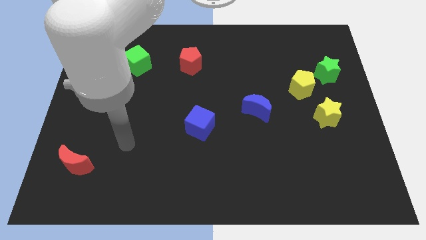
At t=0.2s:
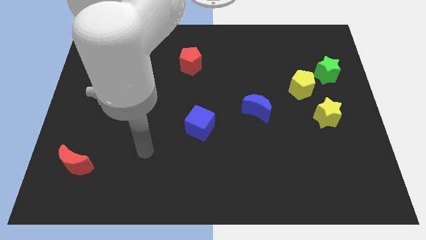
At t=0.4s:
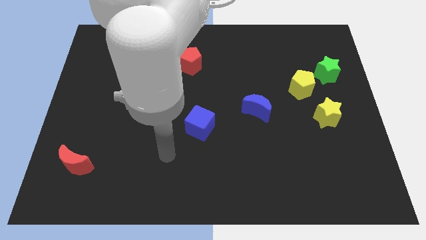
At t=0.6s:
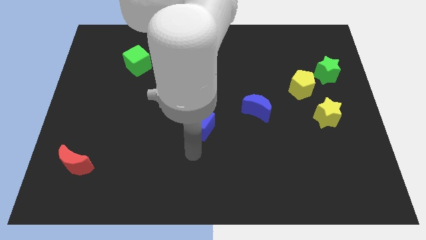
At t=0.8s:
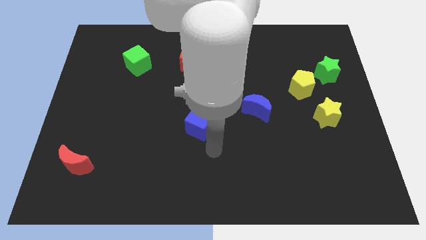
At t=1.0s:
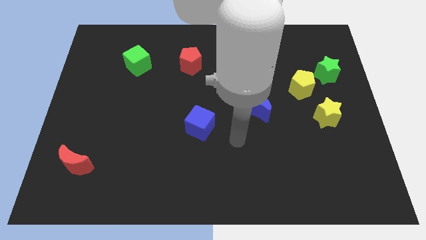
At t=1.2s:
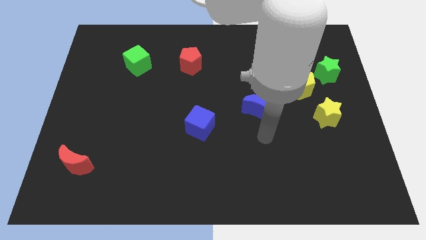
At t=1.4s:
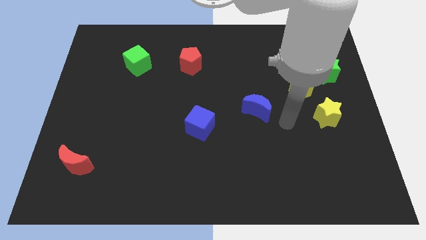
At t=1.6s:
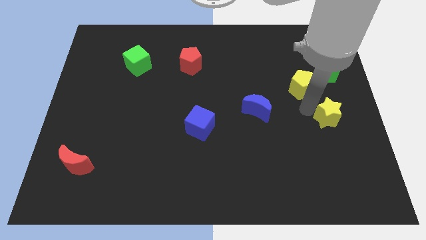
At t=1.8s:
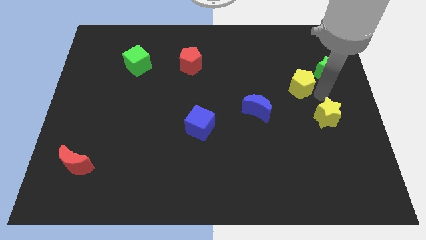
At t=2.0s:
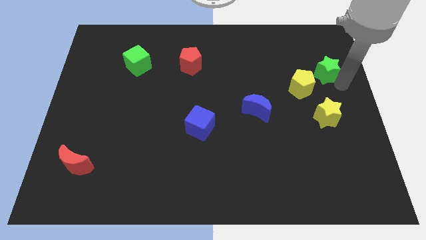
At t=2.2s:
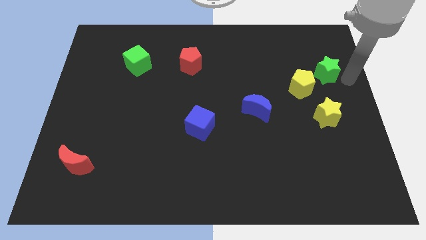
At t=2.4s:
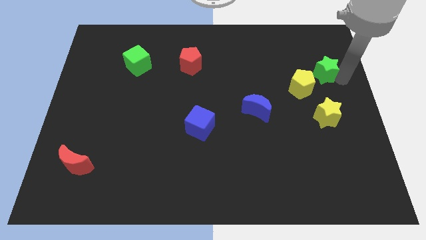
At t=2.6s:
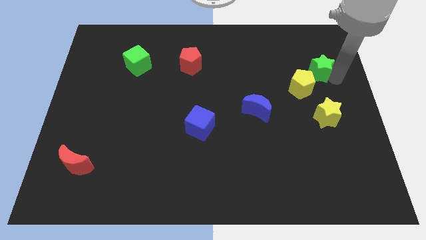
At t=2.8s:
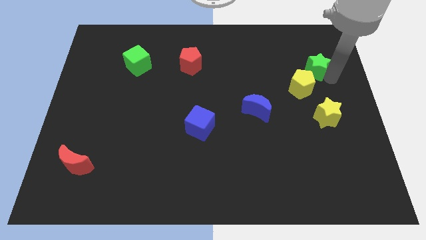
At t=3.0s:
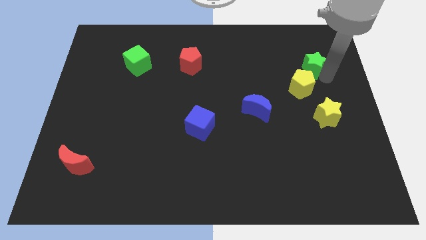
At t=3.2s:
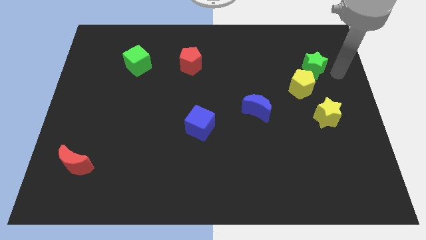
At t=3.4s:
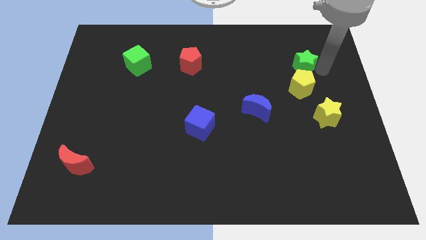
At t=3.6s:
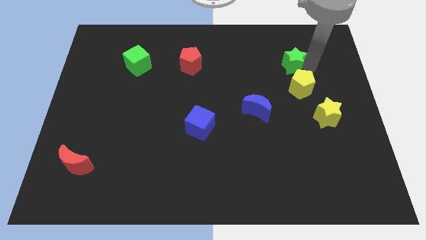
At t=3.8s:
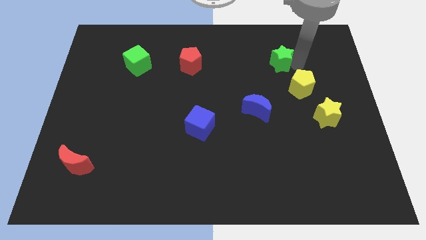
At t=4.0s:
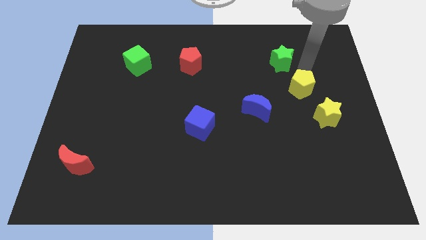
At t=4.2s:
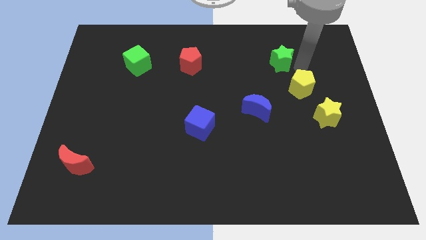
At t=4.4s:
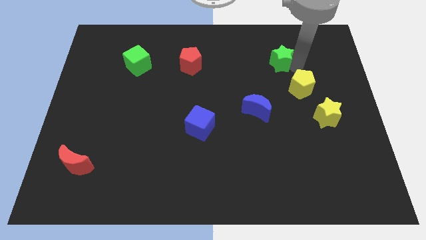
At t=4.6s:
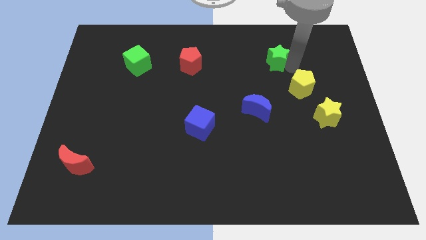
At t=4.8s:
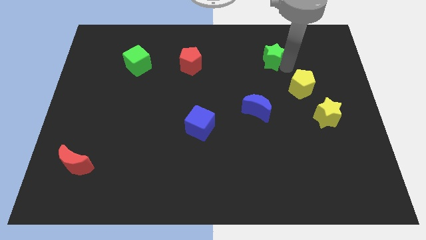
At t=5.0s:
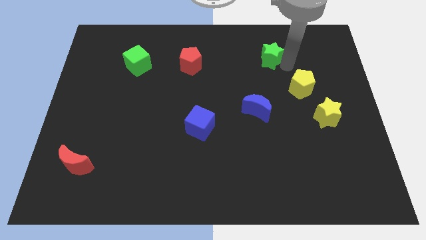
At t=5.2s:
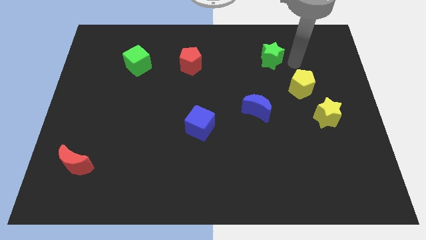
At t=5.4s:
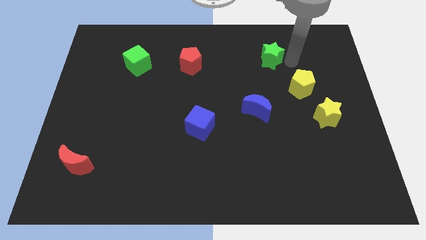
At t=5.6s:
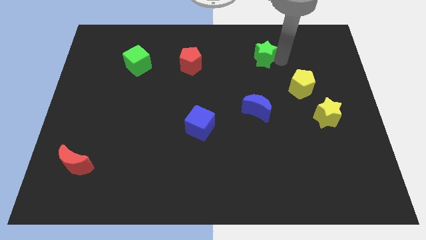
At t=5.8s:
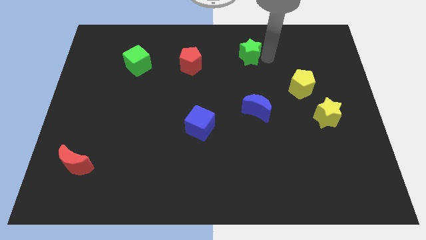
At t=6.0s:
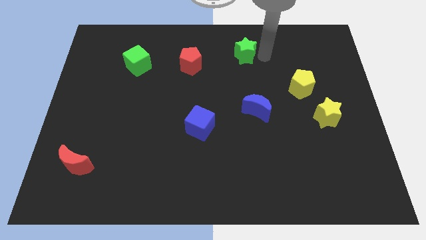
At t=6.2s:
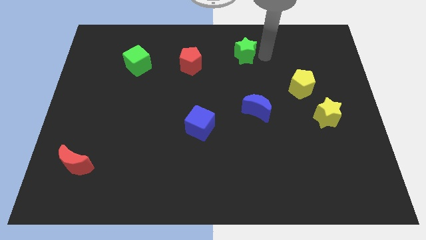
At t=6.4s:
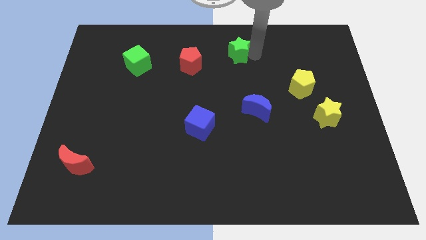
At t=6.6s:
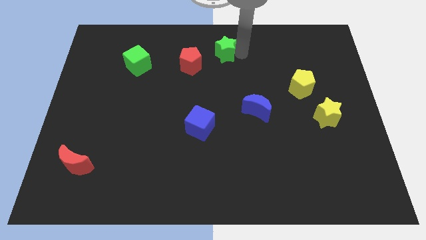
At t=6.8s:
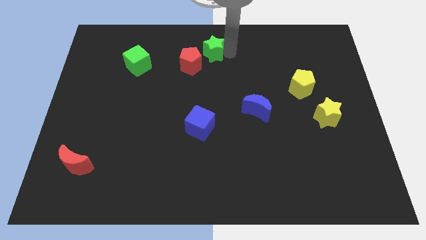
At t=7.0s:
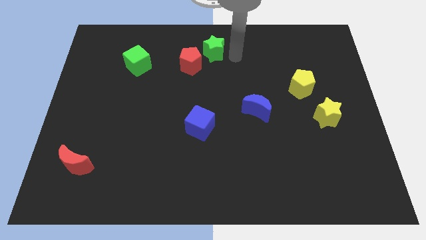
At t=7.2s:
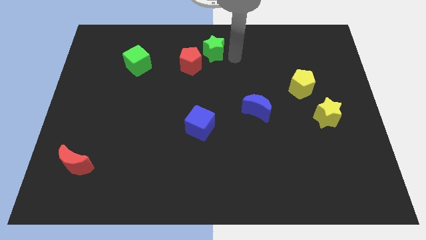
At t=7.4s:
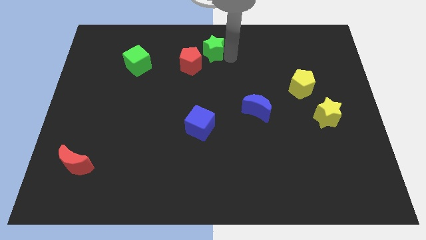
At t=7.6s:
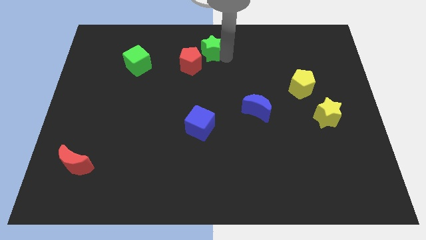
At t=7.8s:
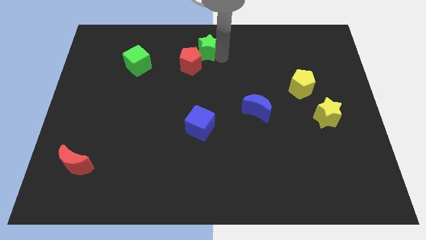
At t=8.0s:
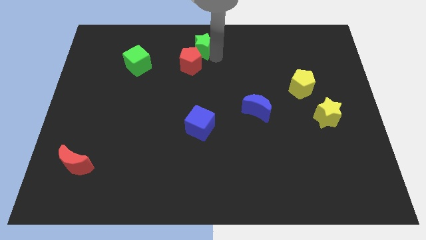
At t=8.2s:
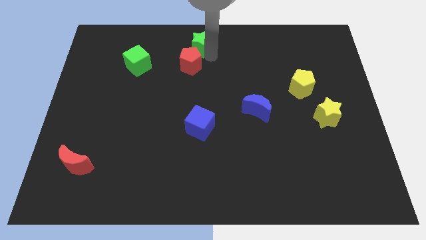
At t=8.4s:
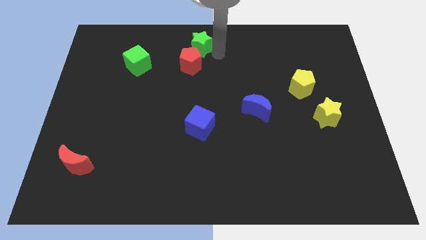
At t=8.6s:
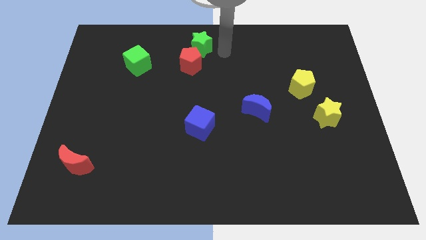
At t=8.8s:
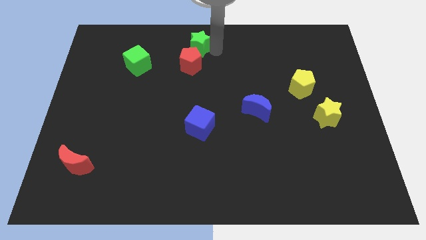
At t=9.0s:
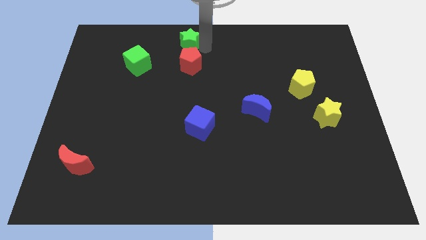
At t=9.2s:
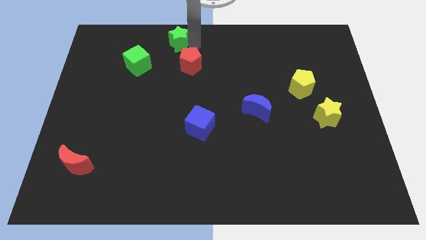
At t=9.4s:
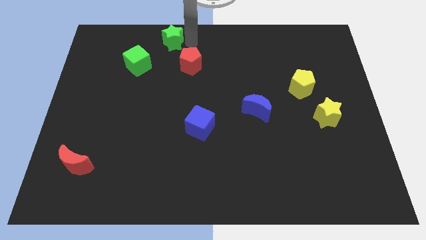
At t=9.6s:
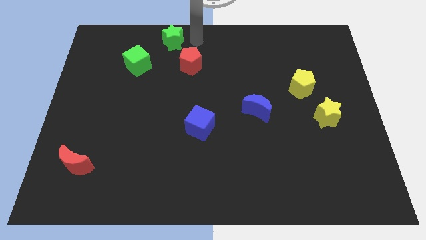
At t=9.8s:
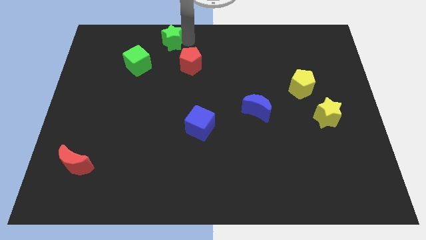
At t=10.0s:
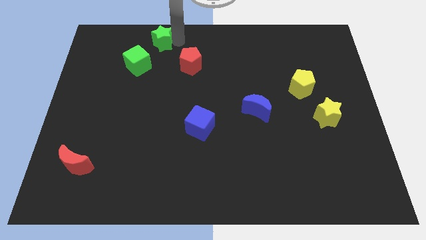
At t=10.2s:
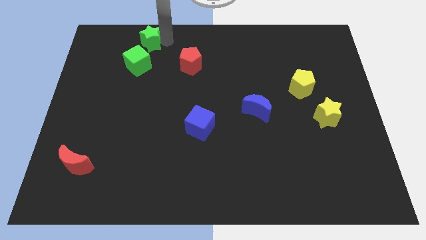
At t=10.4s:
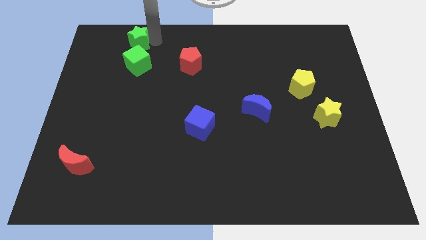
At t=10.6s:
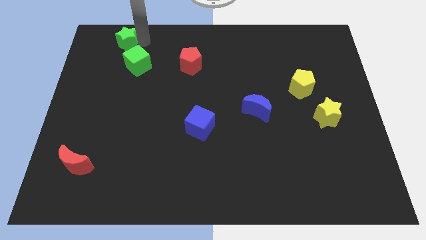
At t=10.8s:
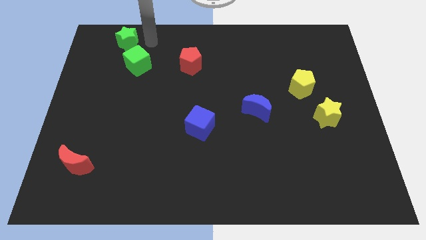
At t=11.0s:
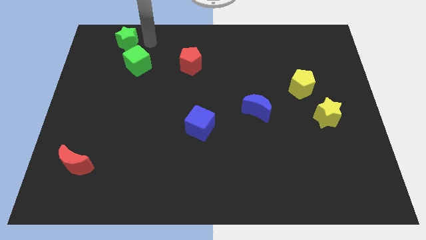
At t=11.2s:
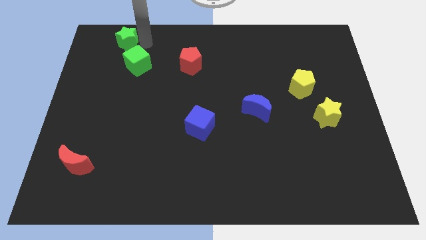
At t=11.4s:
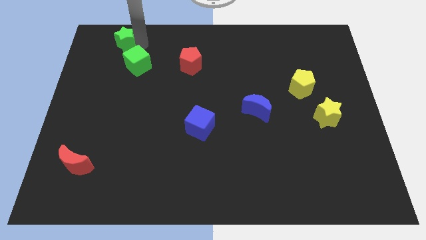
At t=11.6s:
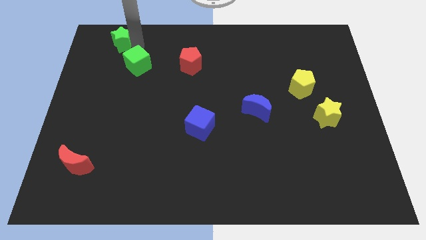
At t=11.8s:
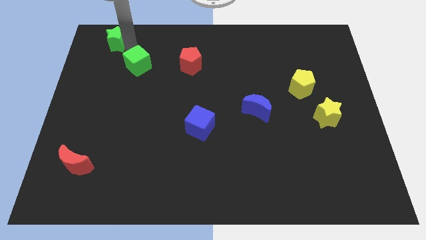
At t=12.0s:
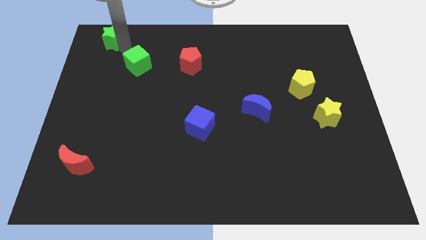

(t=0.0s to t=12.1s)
move the green star to the top left corner

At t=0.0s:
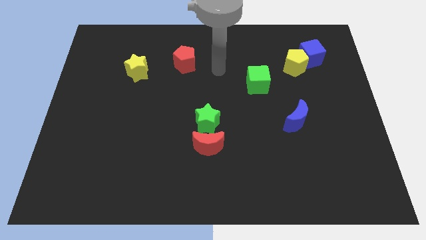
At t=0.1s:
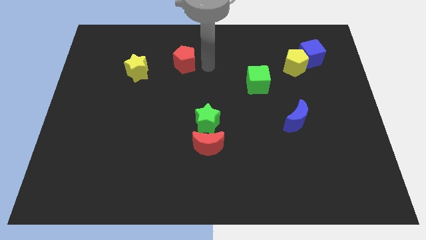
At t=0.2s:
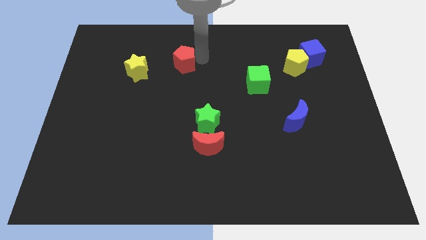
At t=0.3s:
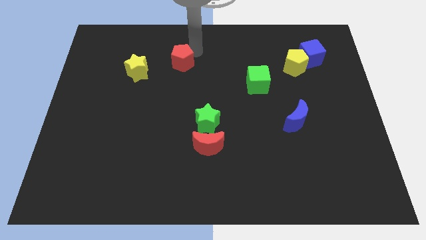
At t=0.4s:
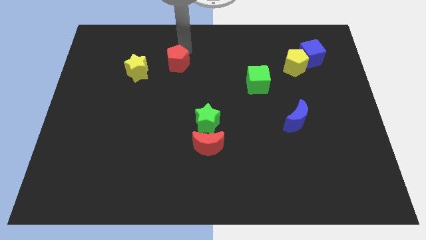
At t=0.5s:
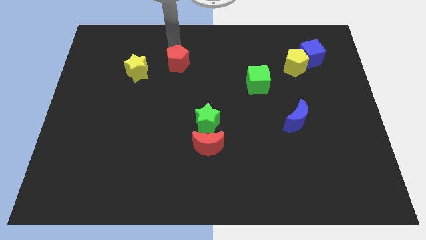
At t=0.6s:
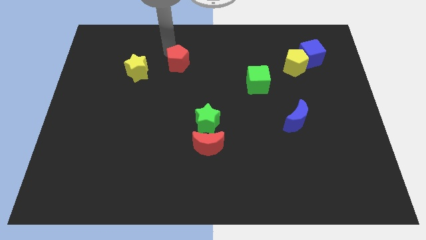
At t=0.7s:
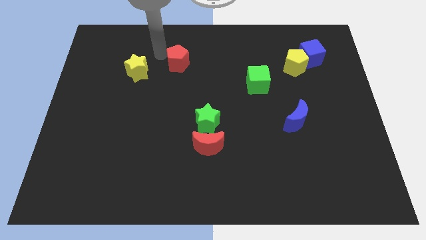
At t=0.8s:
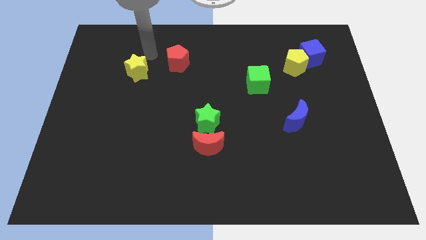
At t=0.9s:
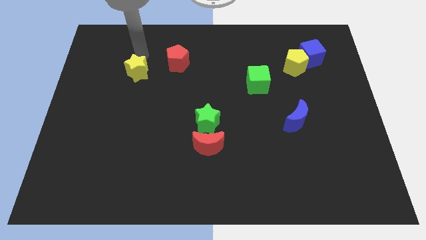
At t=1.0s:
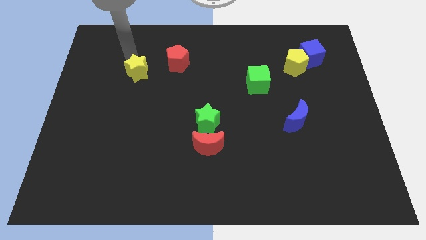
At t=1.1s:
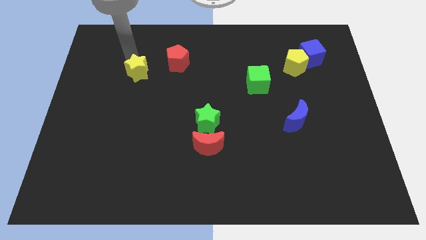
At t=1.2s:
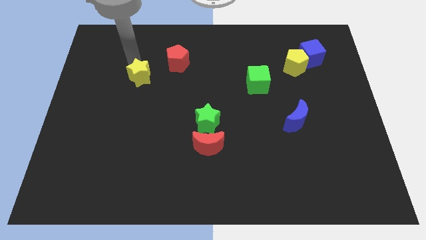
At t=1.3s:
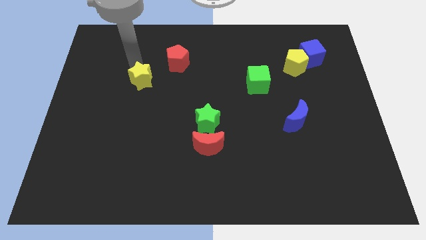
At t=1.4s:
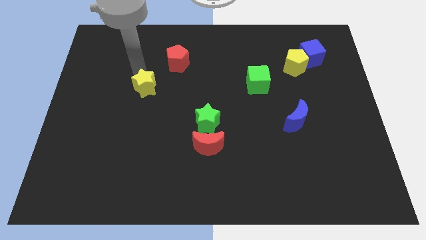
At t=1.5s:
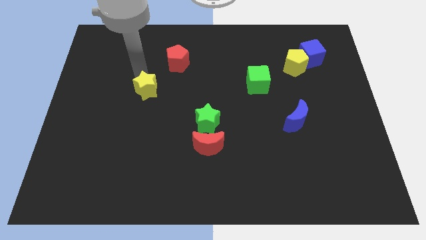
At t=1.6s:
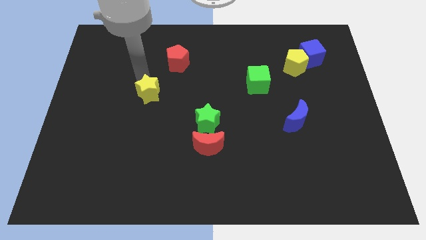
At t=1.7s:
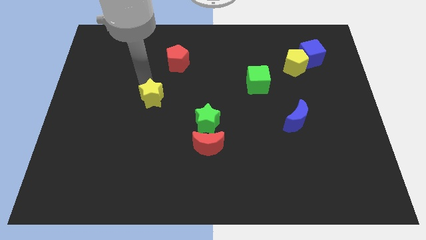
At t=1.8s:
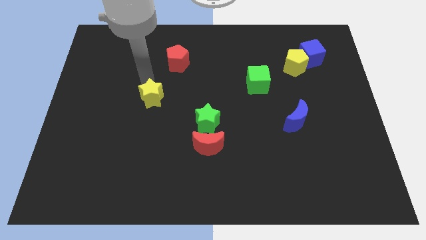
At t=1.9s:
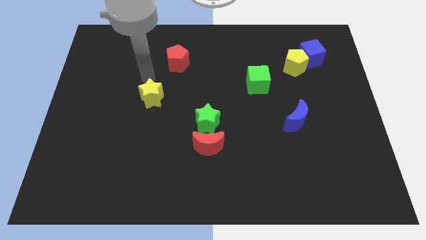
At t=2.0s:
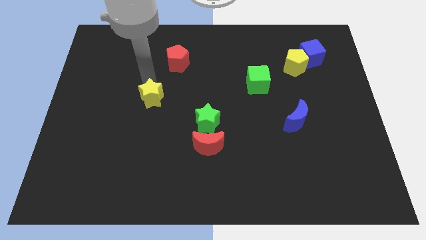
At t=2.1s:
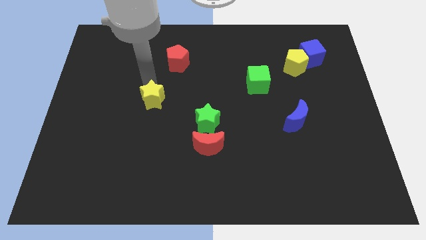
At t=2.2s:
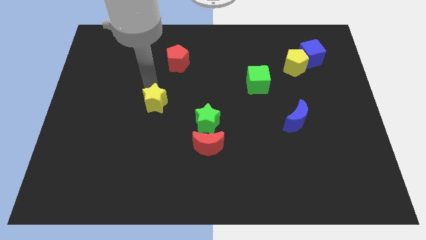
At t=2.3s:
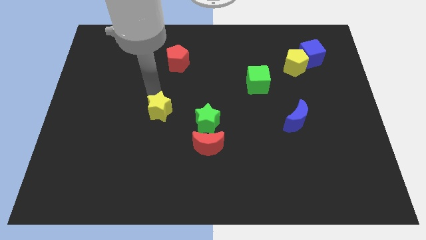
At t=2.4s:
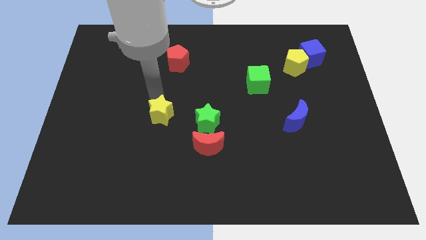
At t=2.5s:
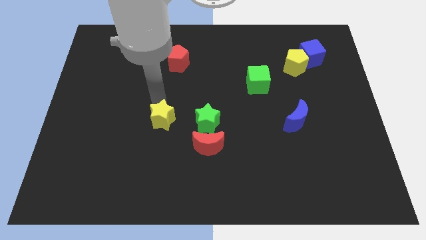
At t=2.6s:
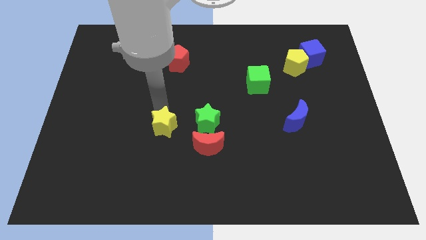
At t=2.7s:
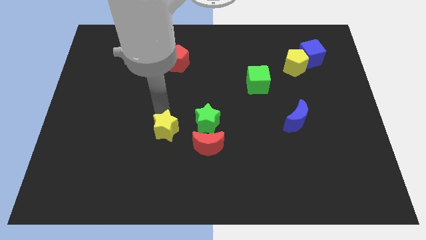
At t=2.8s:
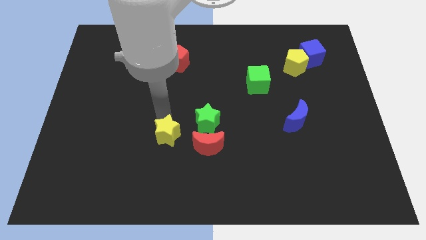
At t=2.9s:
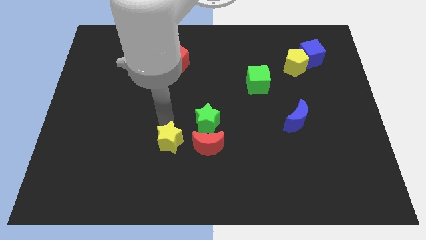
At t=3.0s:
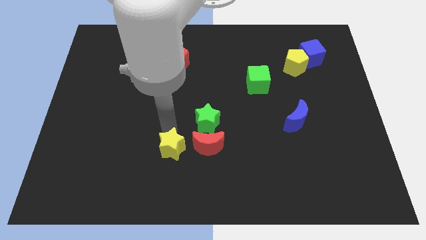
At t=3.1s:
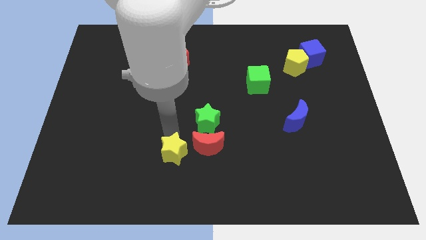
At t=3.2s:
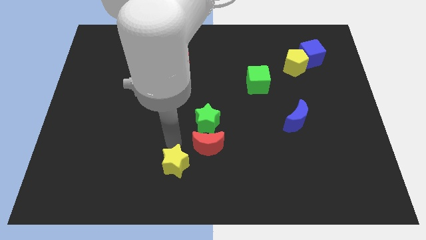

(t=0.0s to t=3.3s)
put the yellow star to the bottom
